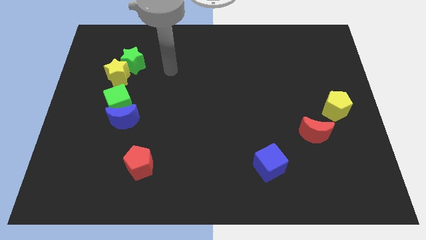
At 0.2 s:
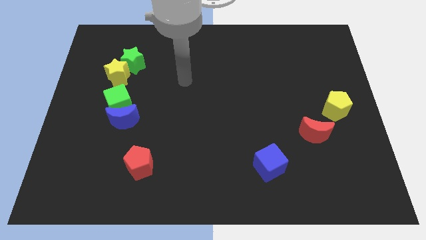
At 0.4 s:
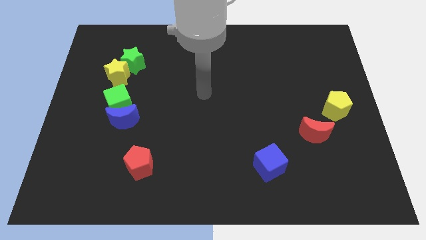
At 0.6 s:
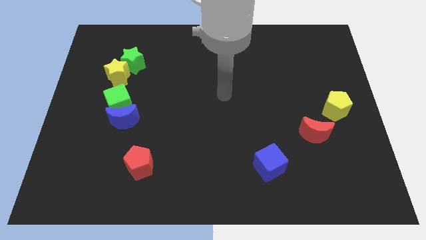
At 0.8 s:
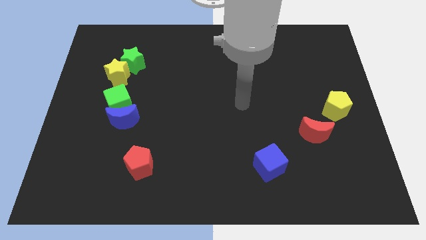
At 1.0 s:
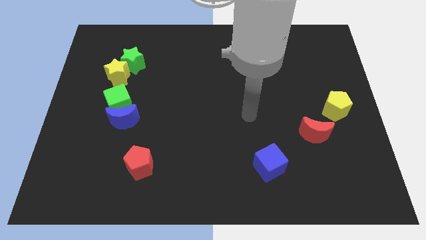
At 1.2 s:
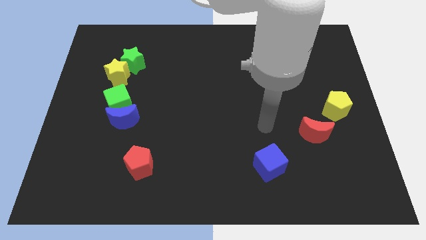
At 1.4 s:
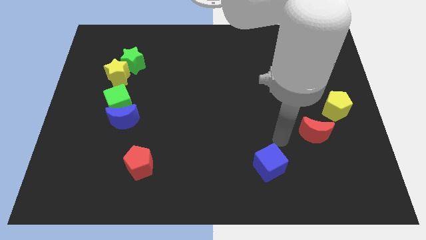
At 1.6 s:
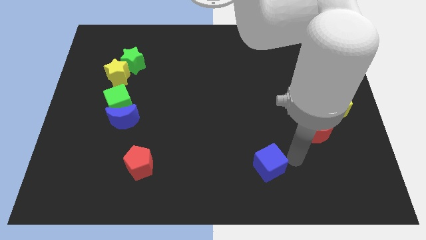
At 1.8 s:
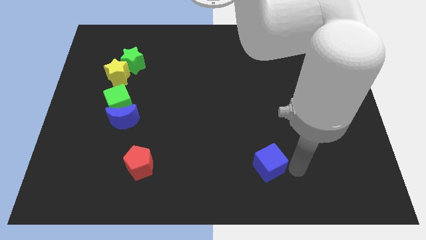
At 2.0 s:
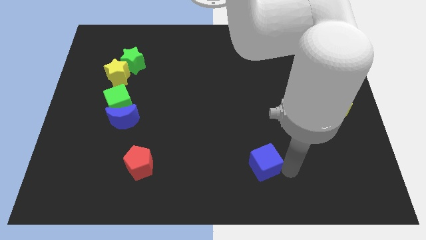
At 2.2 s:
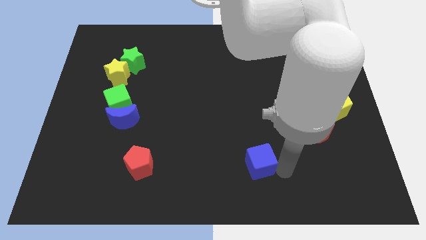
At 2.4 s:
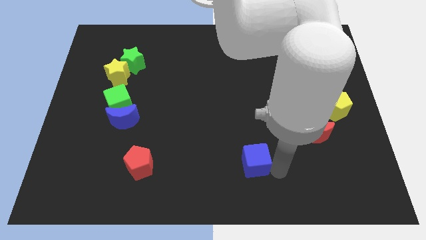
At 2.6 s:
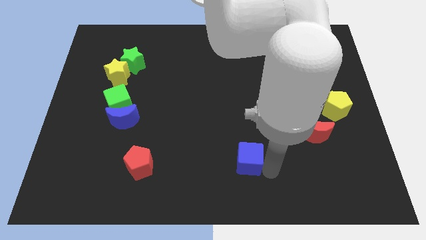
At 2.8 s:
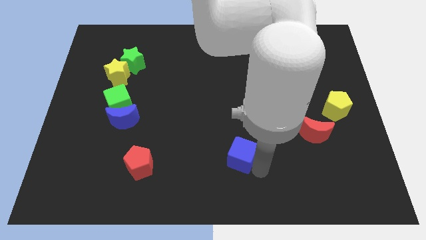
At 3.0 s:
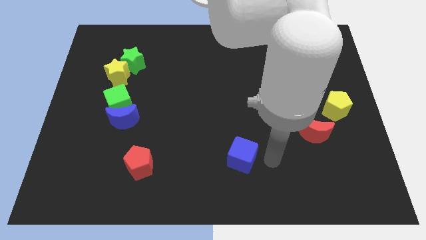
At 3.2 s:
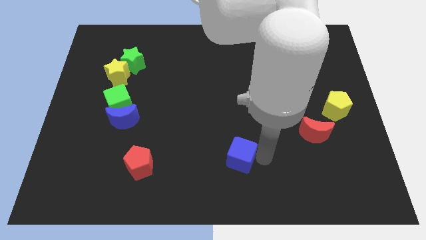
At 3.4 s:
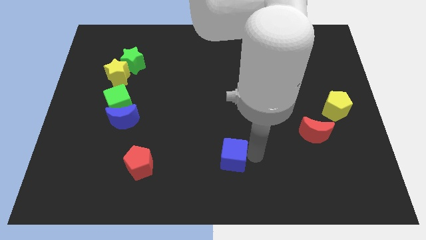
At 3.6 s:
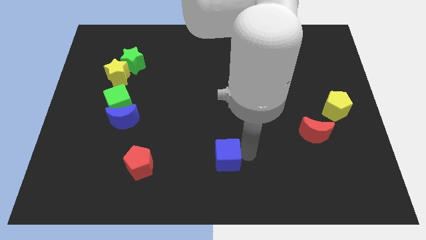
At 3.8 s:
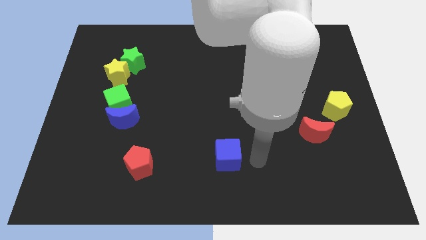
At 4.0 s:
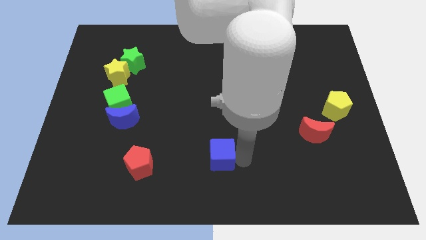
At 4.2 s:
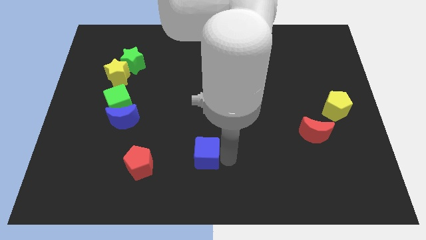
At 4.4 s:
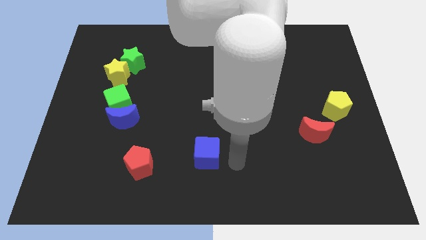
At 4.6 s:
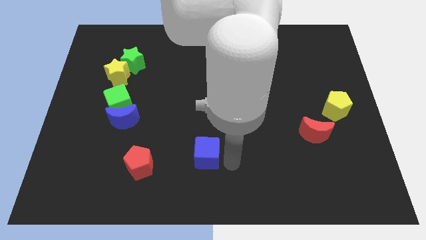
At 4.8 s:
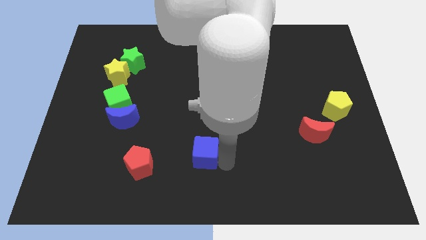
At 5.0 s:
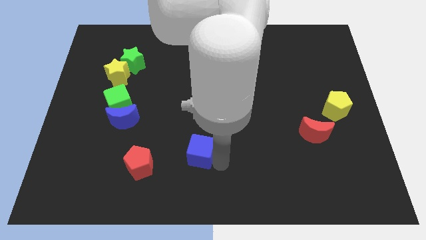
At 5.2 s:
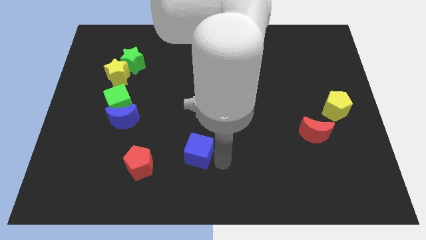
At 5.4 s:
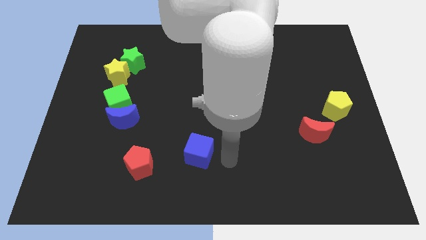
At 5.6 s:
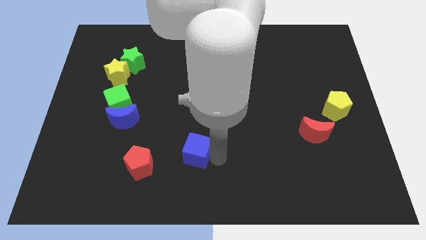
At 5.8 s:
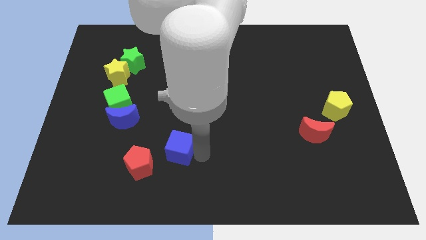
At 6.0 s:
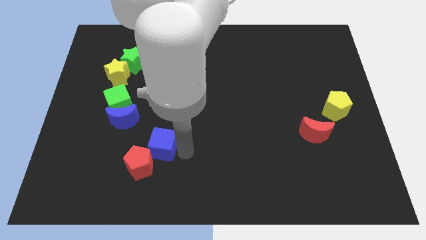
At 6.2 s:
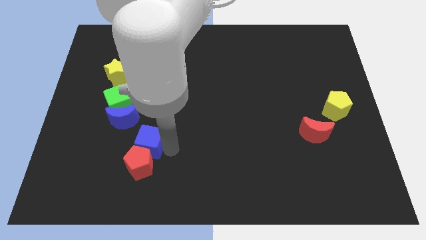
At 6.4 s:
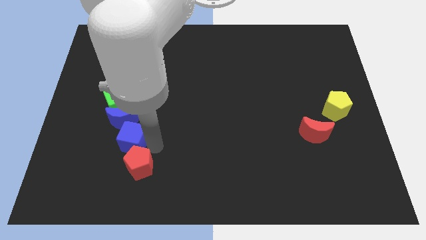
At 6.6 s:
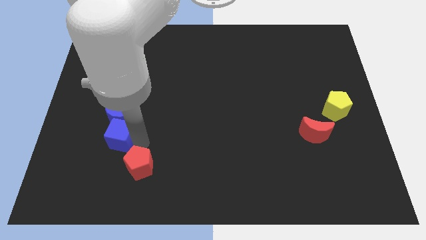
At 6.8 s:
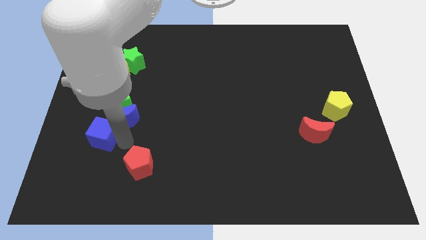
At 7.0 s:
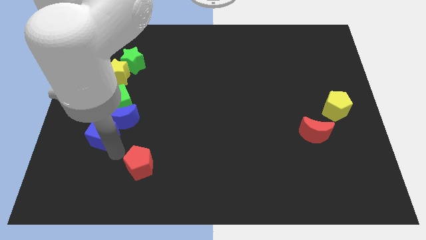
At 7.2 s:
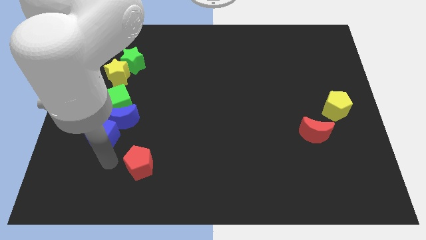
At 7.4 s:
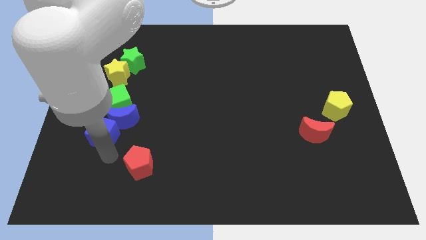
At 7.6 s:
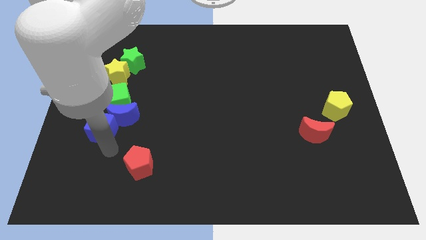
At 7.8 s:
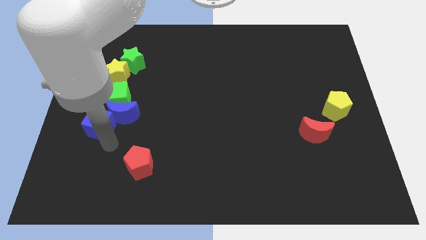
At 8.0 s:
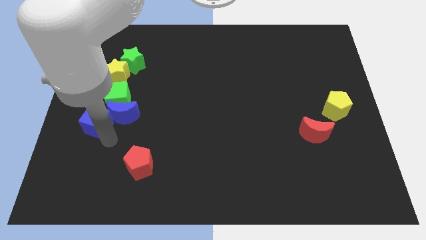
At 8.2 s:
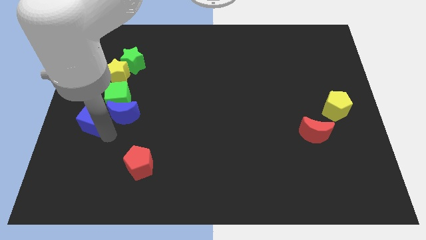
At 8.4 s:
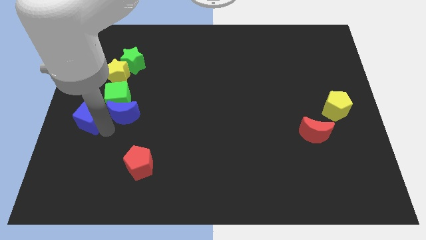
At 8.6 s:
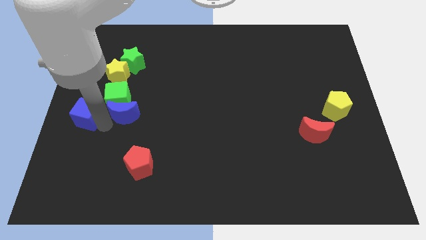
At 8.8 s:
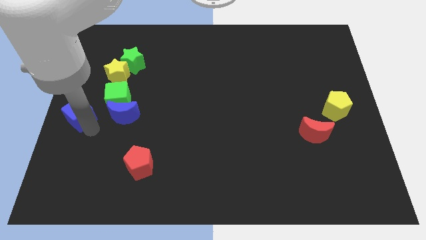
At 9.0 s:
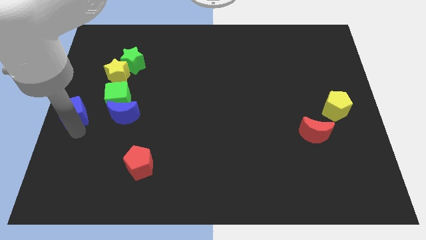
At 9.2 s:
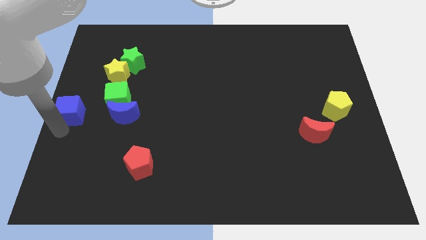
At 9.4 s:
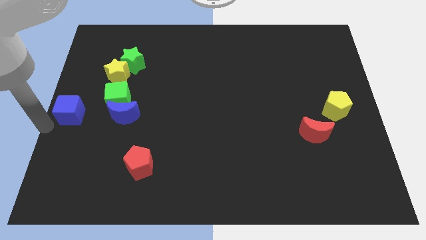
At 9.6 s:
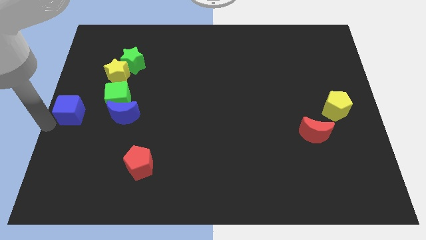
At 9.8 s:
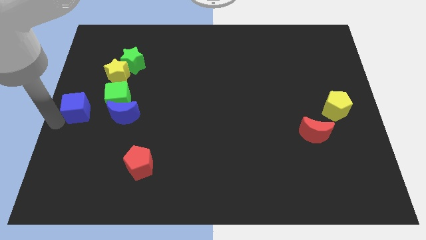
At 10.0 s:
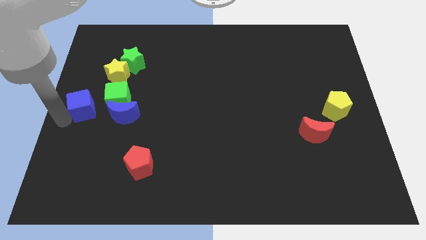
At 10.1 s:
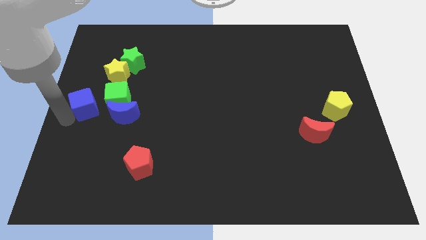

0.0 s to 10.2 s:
slide the blue cube to the top left side of the blue moon

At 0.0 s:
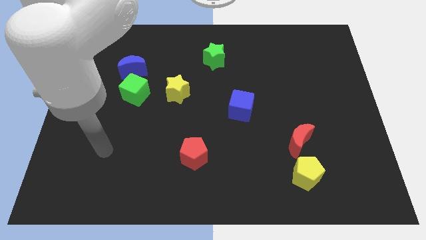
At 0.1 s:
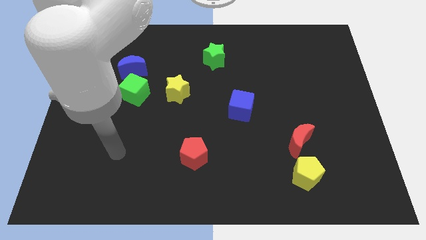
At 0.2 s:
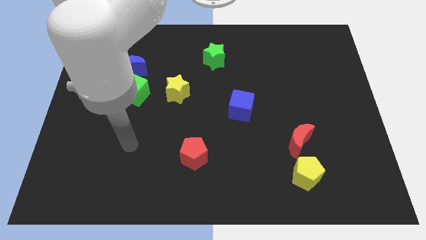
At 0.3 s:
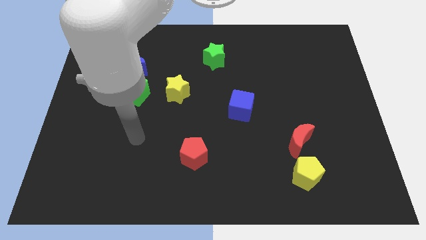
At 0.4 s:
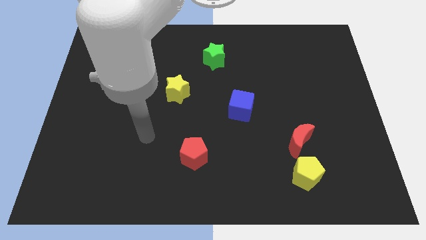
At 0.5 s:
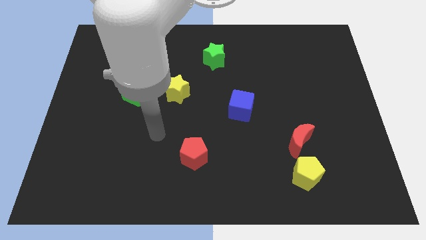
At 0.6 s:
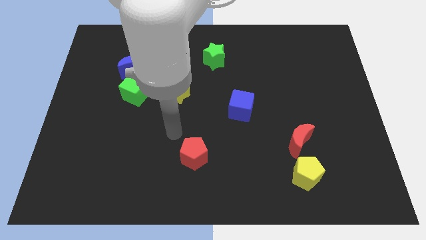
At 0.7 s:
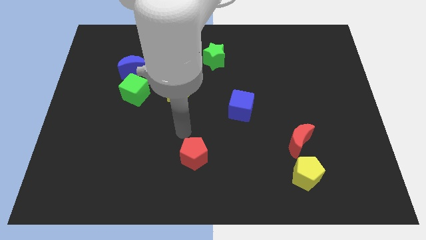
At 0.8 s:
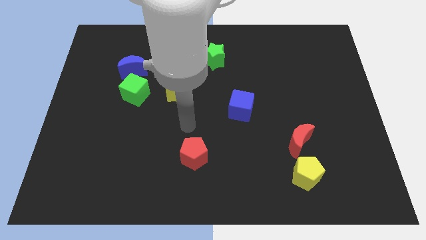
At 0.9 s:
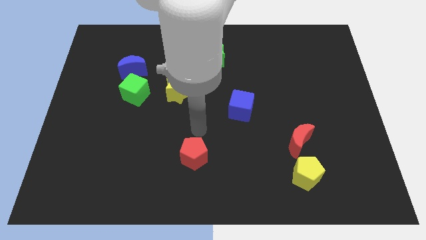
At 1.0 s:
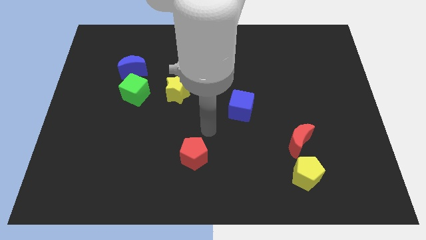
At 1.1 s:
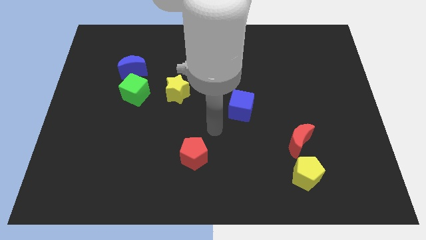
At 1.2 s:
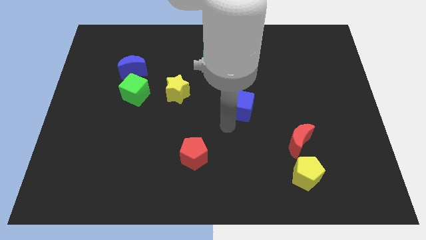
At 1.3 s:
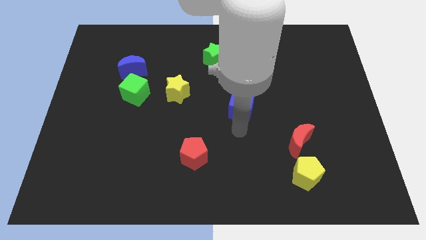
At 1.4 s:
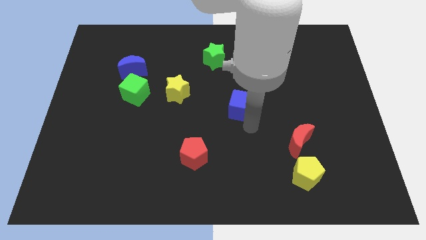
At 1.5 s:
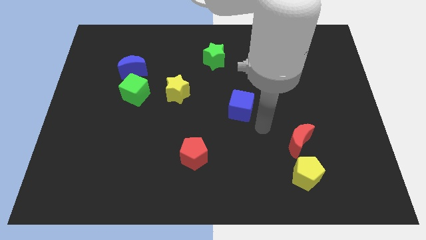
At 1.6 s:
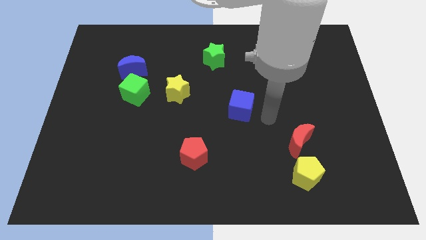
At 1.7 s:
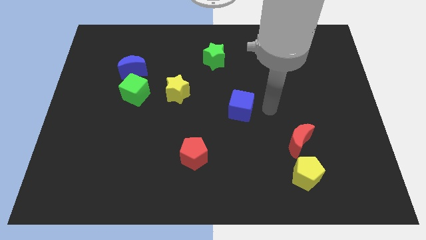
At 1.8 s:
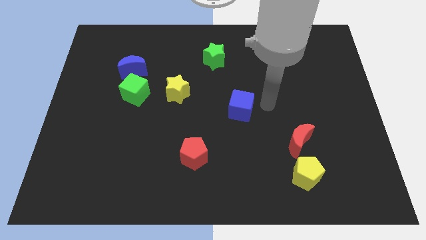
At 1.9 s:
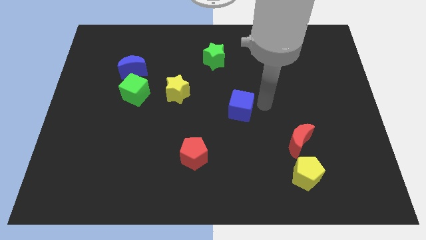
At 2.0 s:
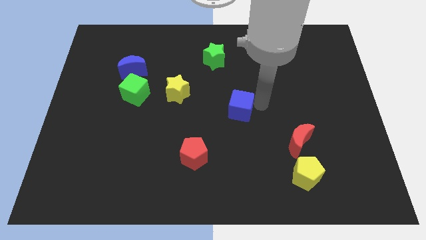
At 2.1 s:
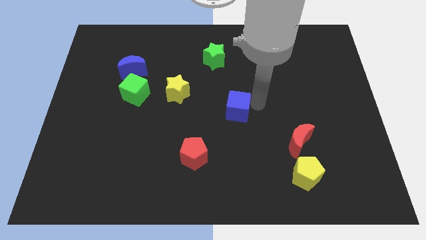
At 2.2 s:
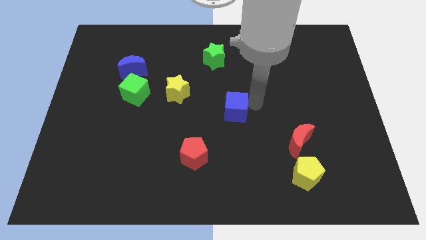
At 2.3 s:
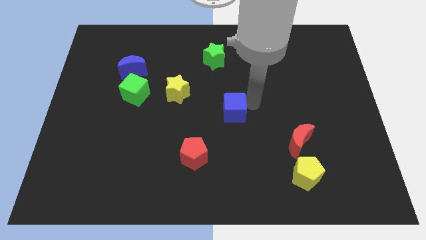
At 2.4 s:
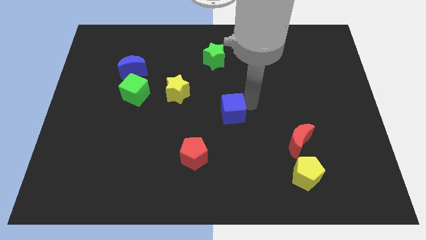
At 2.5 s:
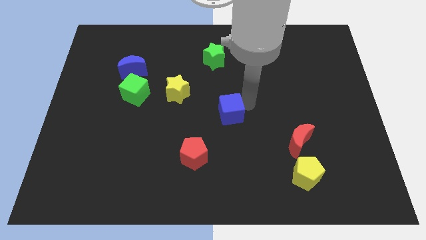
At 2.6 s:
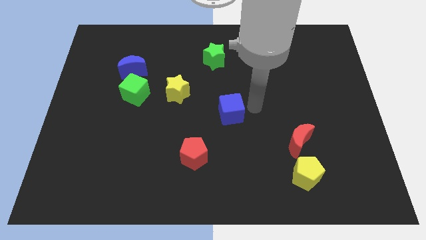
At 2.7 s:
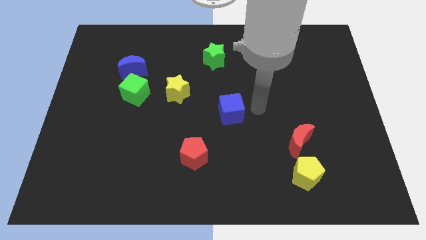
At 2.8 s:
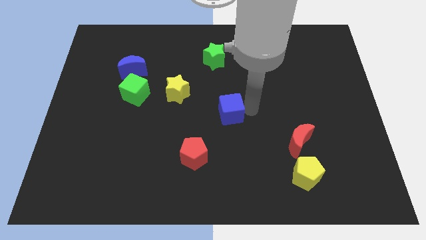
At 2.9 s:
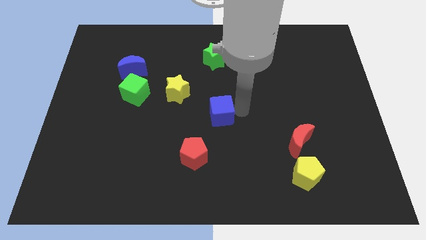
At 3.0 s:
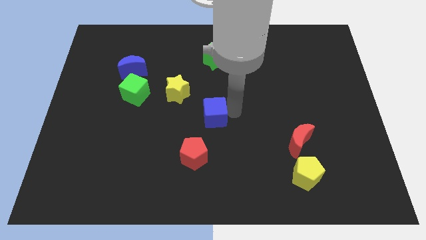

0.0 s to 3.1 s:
push the blue cube to the top of the red pentagon
